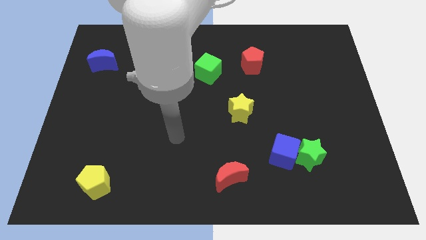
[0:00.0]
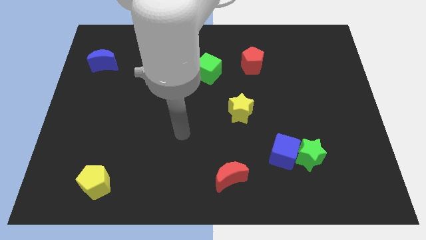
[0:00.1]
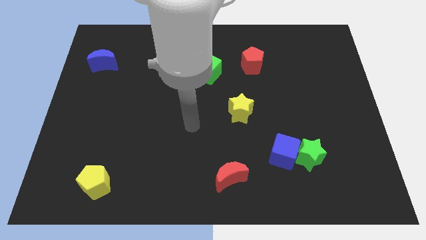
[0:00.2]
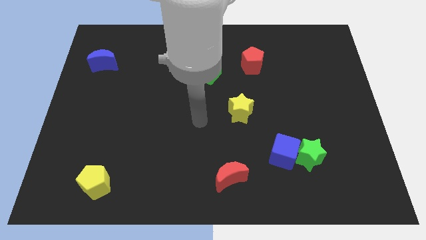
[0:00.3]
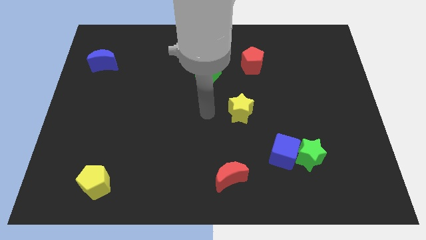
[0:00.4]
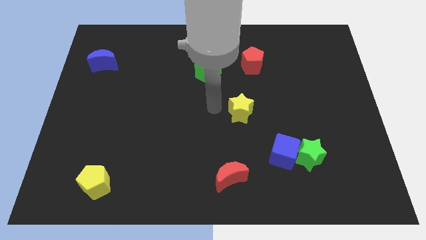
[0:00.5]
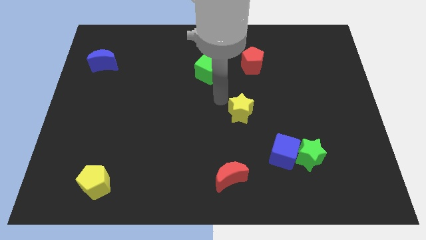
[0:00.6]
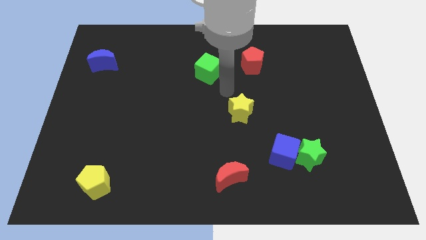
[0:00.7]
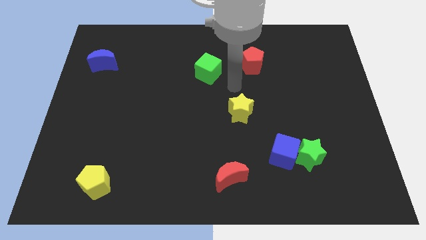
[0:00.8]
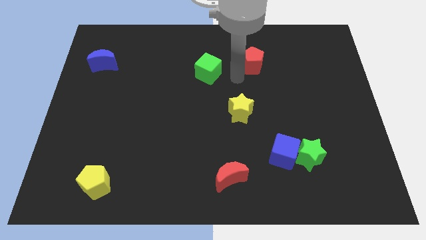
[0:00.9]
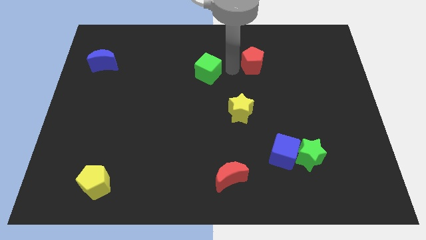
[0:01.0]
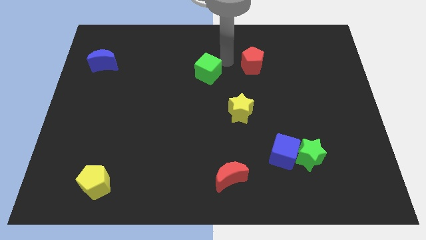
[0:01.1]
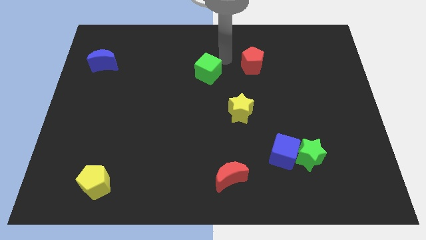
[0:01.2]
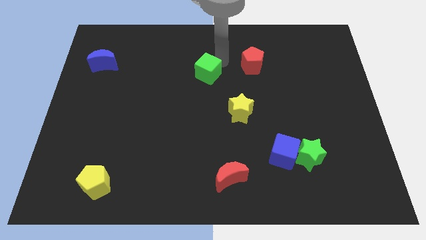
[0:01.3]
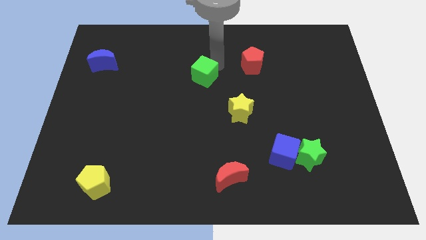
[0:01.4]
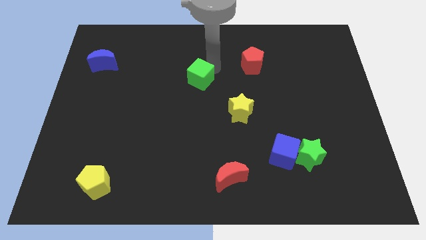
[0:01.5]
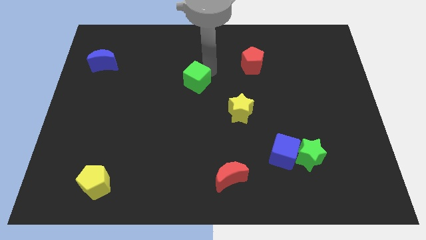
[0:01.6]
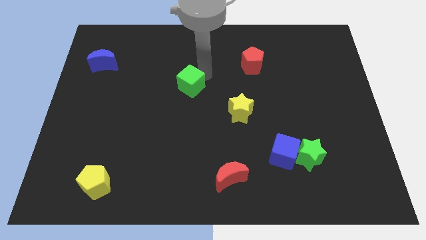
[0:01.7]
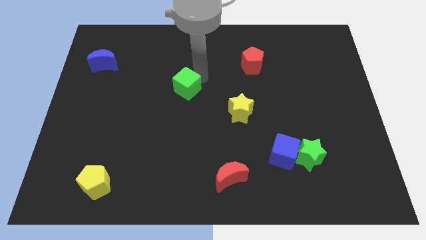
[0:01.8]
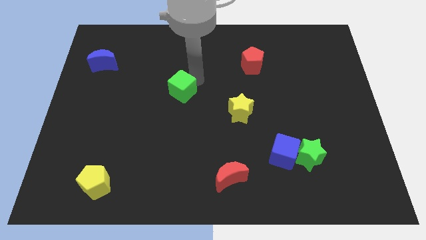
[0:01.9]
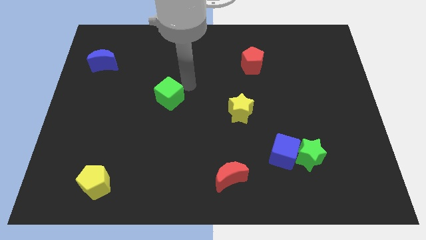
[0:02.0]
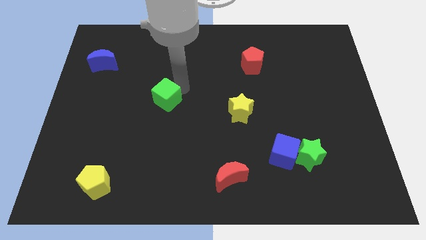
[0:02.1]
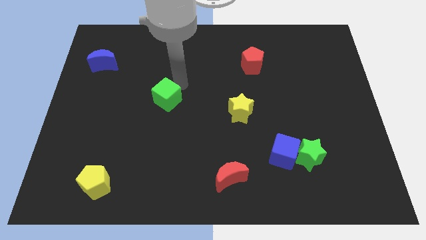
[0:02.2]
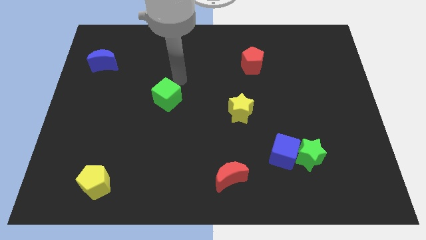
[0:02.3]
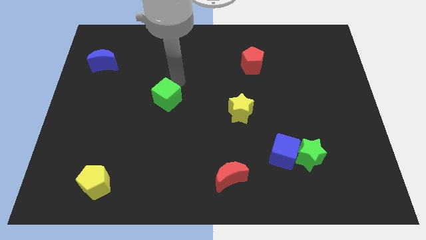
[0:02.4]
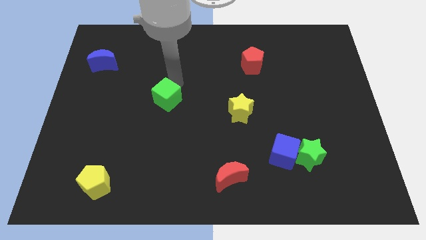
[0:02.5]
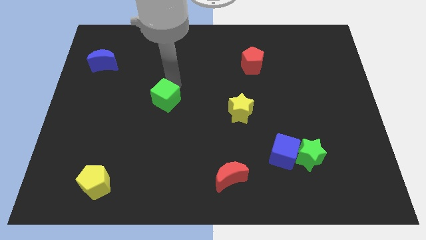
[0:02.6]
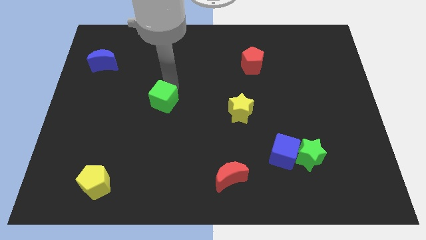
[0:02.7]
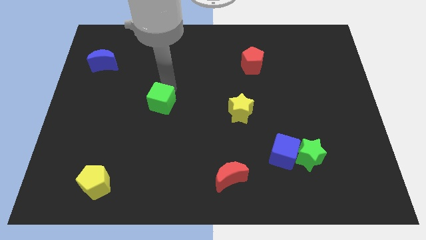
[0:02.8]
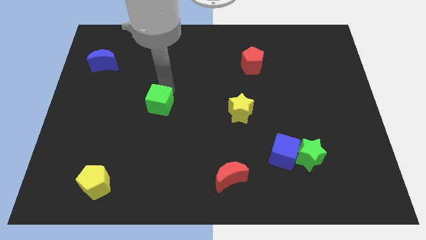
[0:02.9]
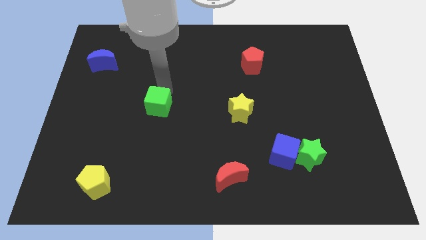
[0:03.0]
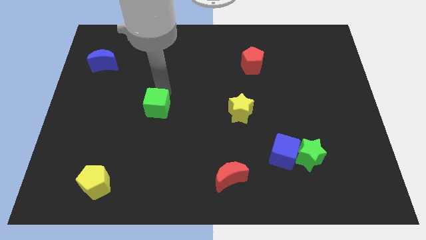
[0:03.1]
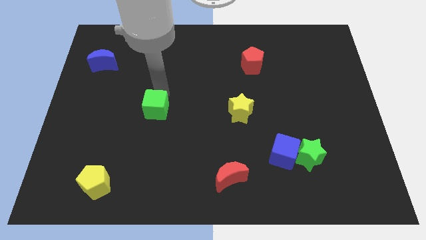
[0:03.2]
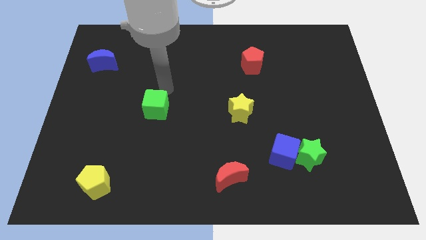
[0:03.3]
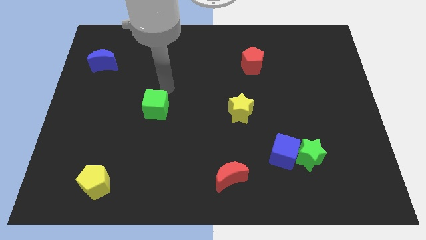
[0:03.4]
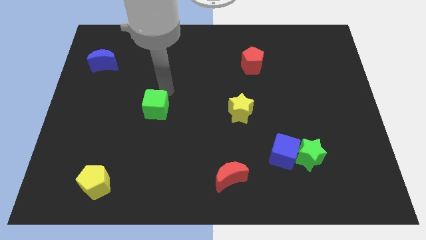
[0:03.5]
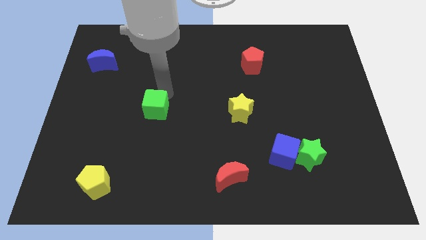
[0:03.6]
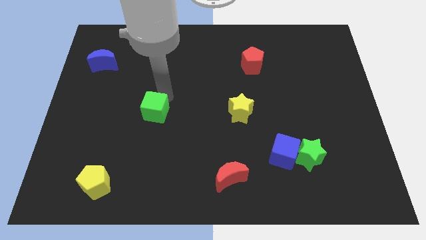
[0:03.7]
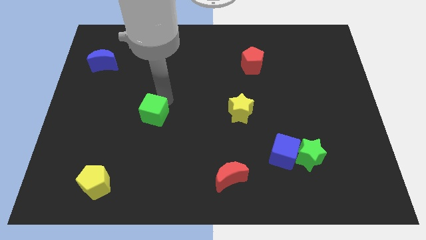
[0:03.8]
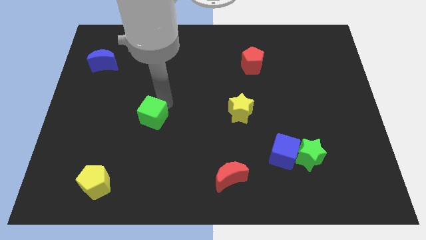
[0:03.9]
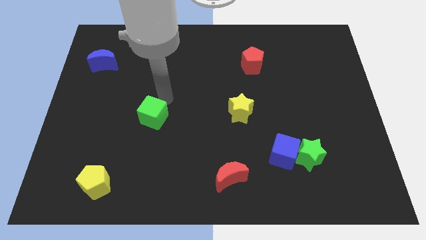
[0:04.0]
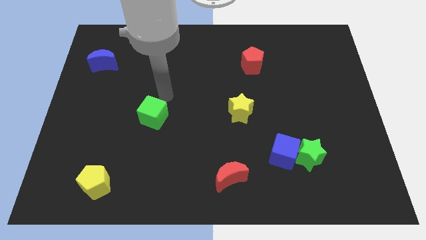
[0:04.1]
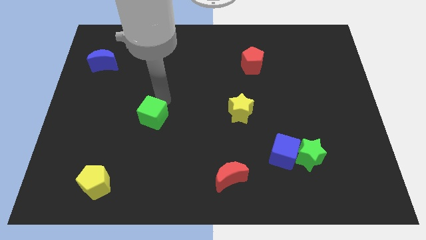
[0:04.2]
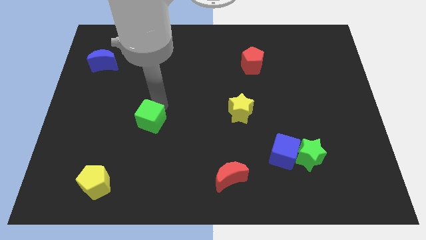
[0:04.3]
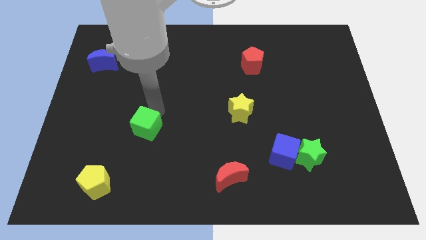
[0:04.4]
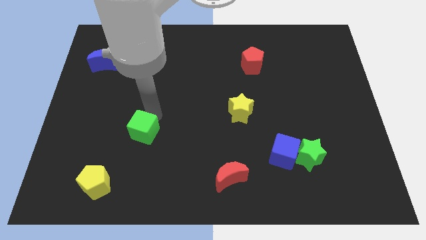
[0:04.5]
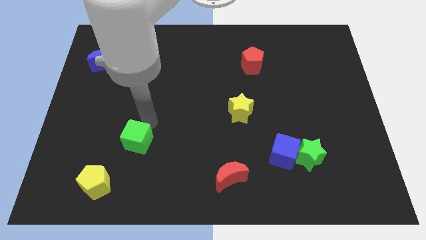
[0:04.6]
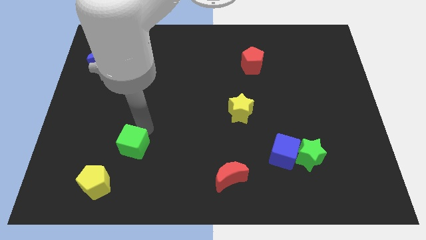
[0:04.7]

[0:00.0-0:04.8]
put the green cube to the top right of the yellow pentagon

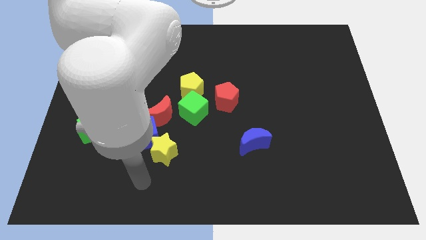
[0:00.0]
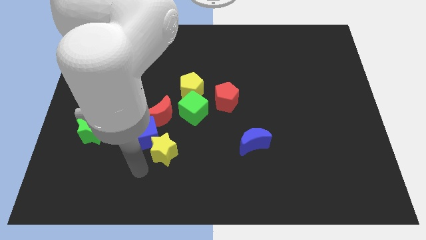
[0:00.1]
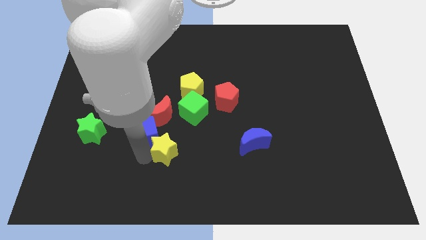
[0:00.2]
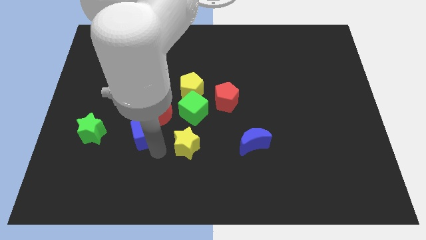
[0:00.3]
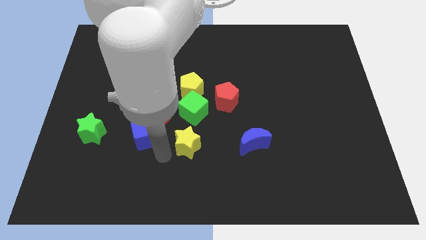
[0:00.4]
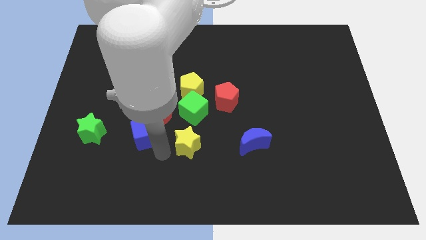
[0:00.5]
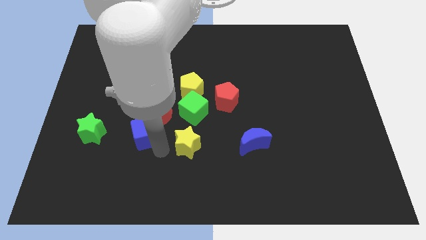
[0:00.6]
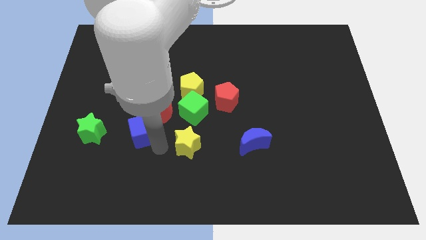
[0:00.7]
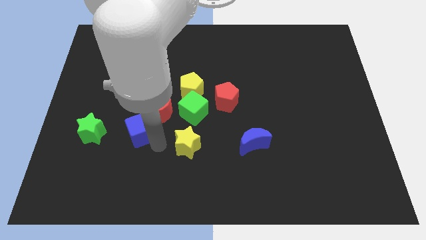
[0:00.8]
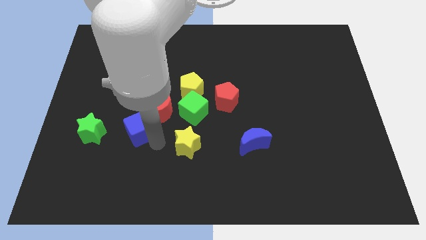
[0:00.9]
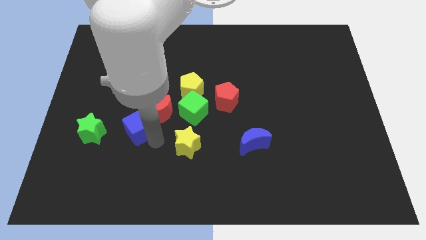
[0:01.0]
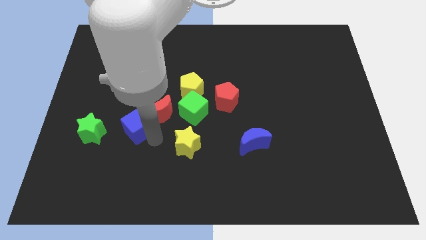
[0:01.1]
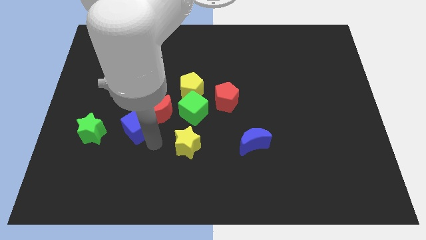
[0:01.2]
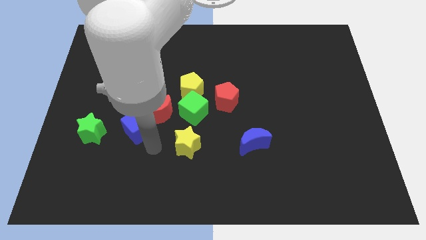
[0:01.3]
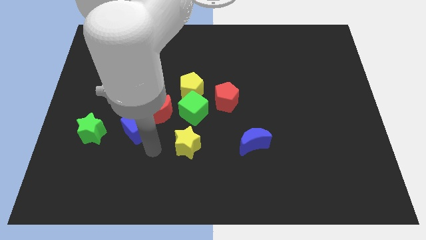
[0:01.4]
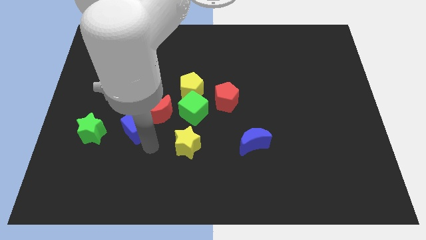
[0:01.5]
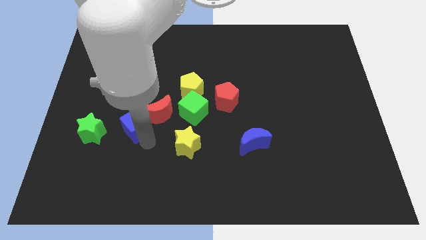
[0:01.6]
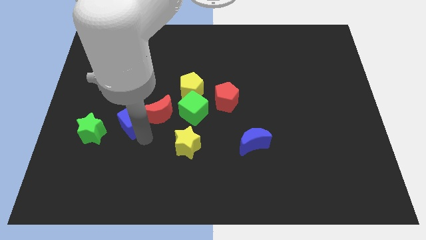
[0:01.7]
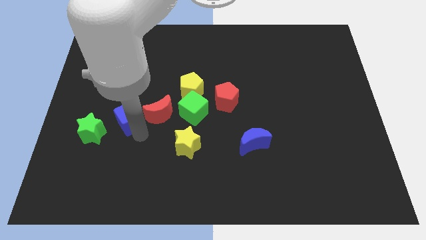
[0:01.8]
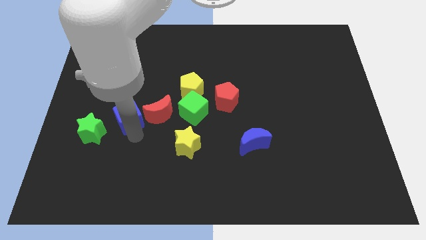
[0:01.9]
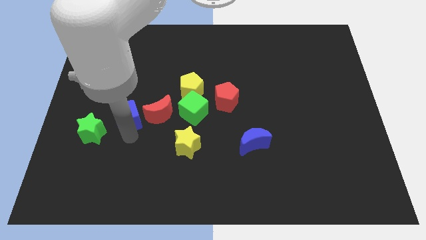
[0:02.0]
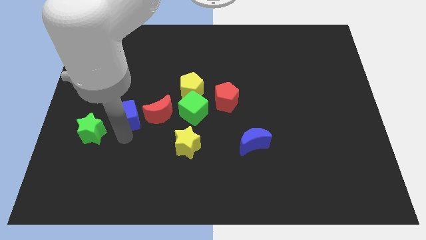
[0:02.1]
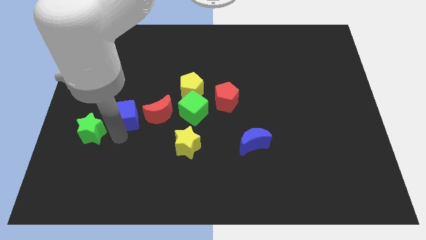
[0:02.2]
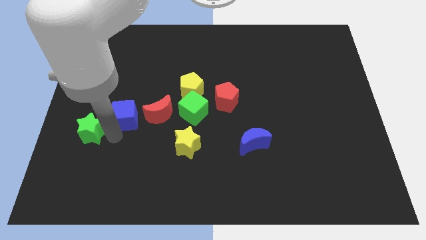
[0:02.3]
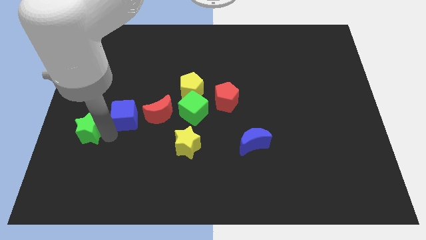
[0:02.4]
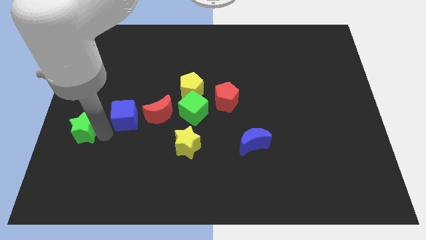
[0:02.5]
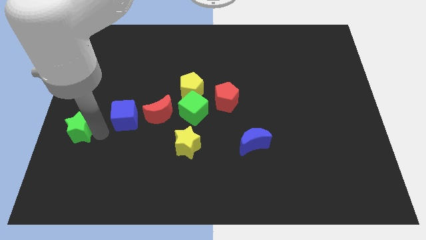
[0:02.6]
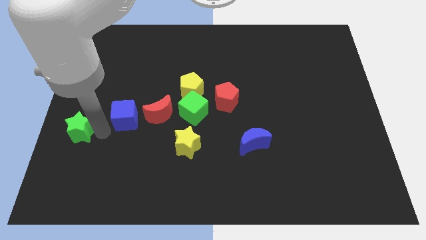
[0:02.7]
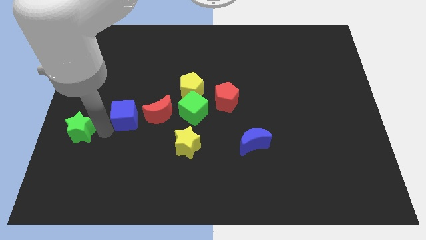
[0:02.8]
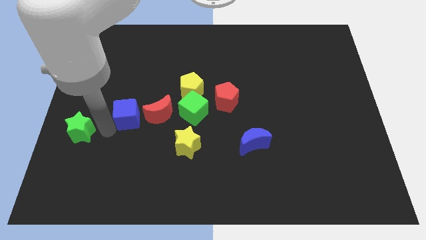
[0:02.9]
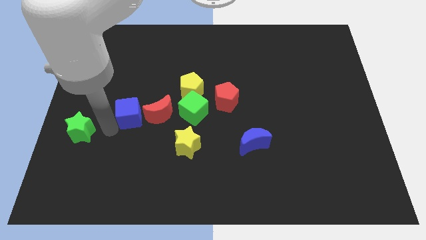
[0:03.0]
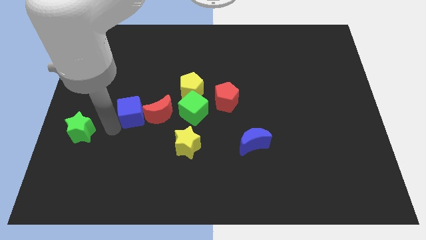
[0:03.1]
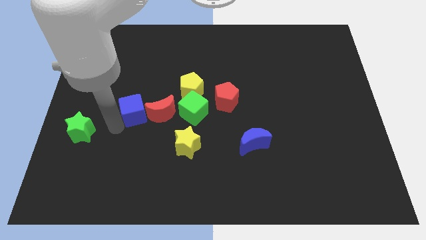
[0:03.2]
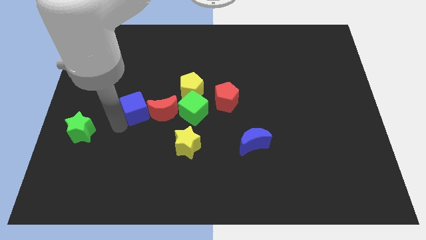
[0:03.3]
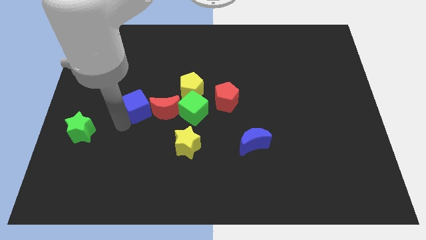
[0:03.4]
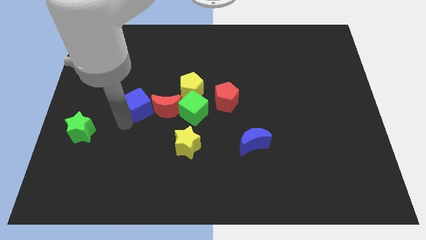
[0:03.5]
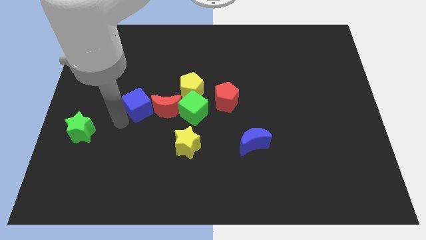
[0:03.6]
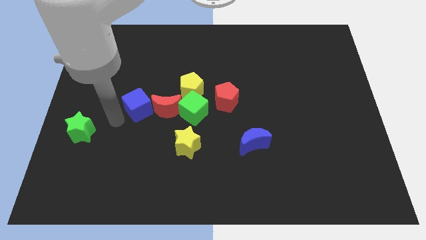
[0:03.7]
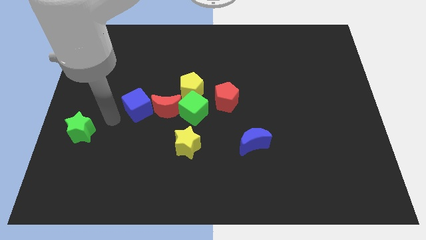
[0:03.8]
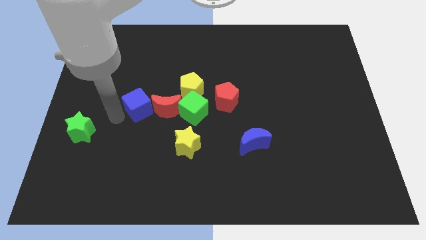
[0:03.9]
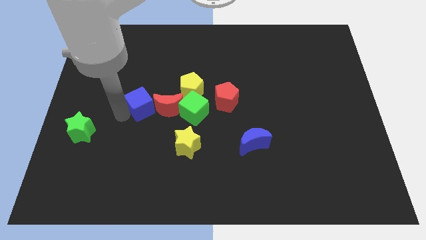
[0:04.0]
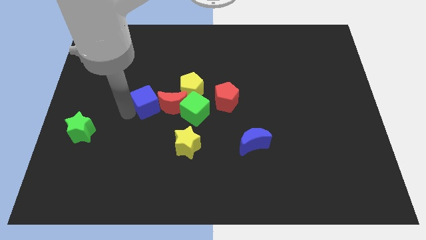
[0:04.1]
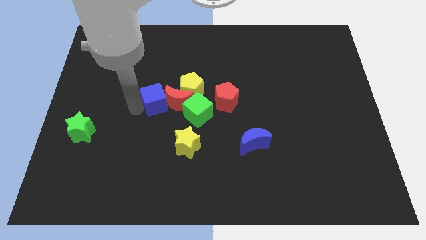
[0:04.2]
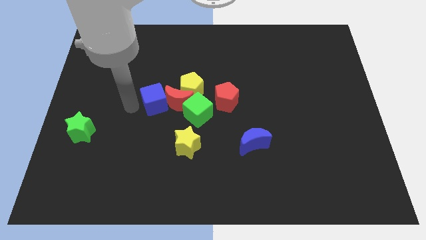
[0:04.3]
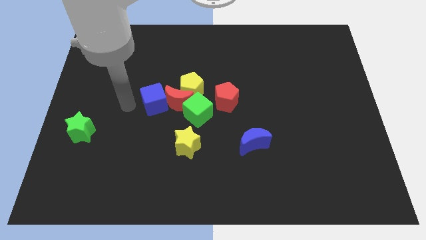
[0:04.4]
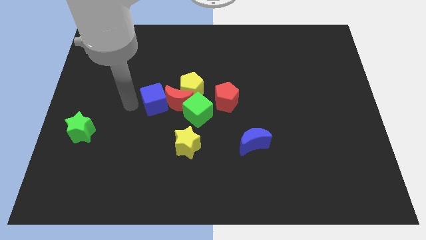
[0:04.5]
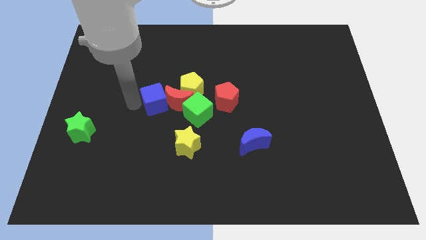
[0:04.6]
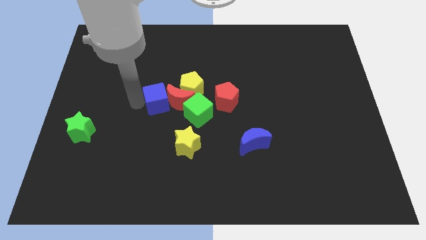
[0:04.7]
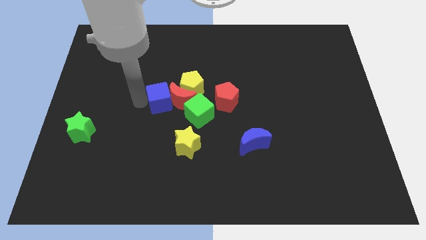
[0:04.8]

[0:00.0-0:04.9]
slide the blue cube left of the red pentagon
